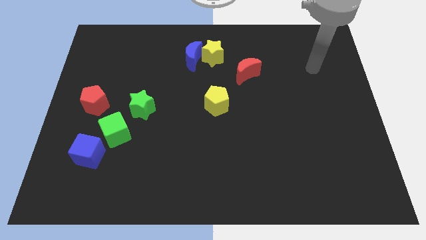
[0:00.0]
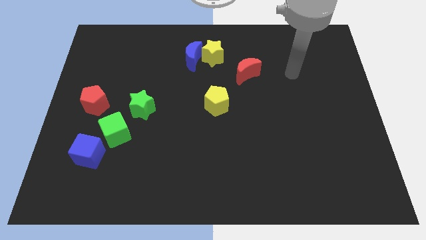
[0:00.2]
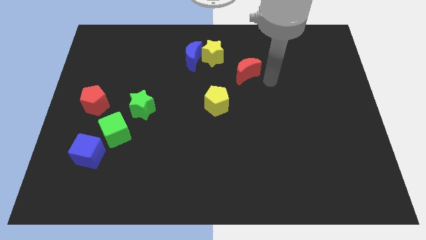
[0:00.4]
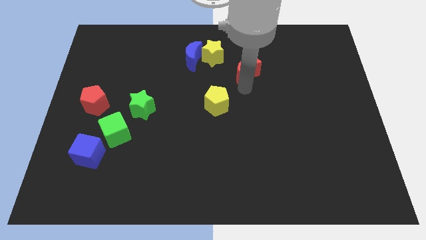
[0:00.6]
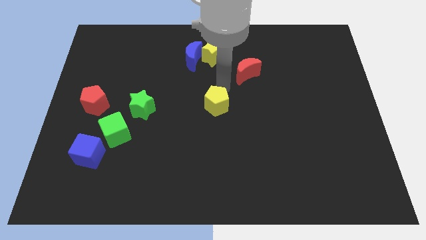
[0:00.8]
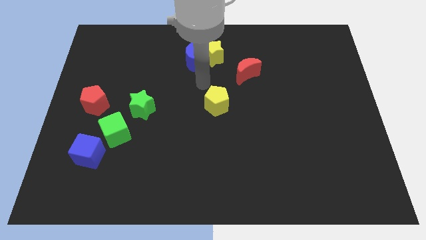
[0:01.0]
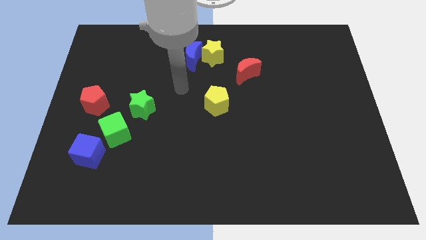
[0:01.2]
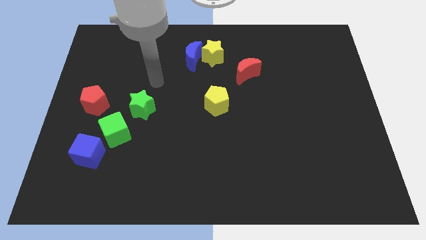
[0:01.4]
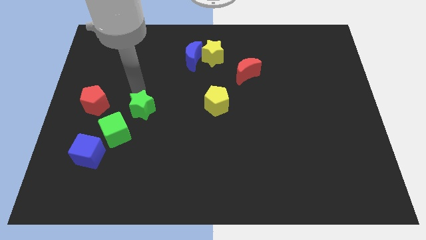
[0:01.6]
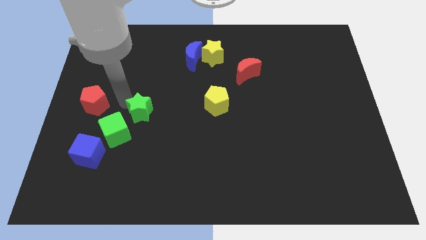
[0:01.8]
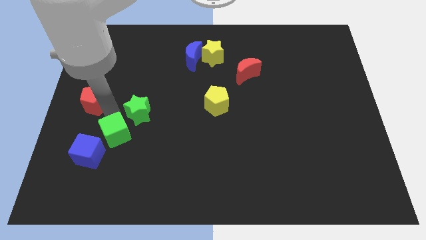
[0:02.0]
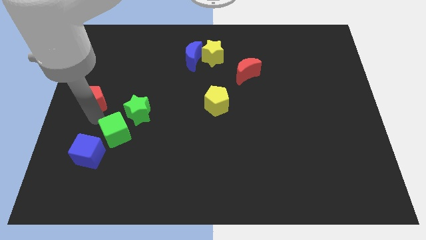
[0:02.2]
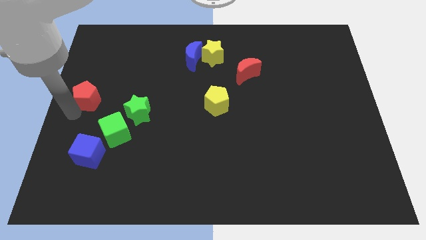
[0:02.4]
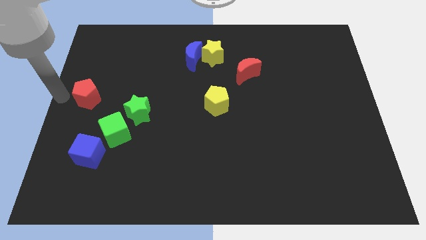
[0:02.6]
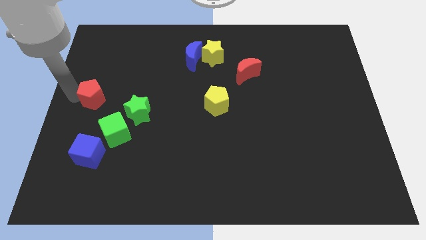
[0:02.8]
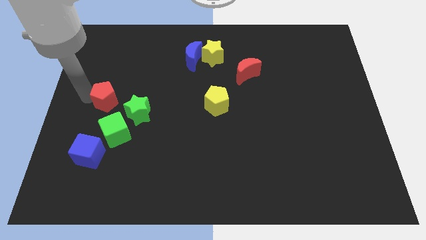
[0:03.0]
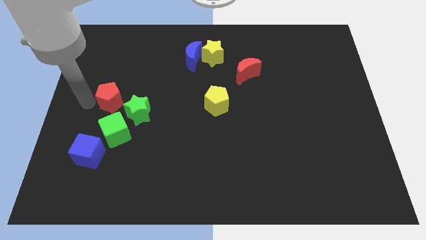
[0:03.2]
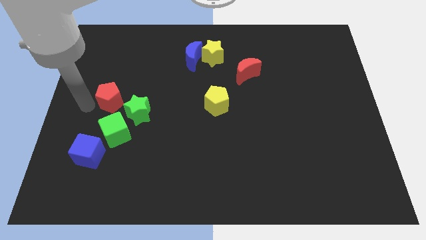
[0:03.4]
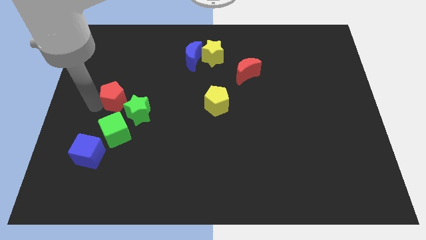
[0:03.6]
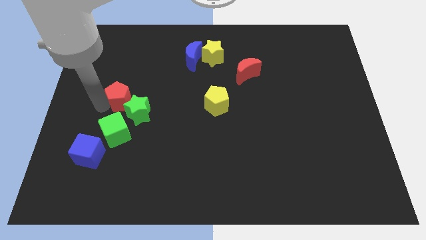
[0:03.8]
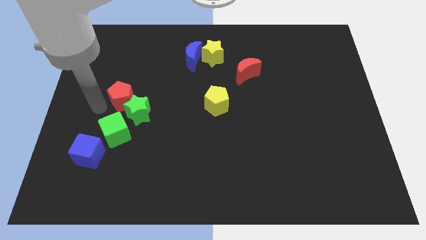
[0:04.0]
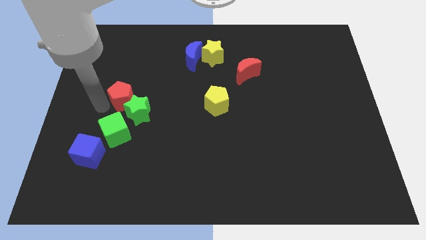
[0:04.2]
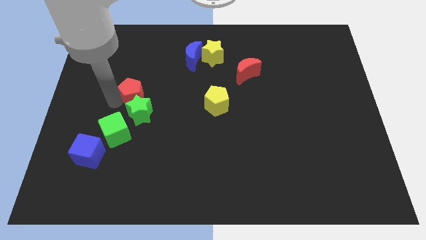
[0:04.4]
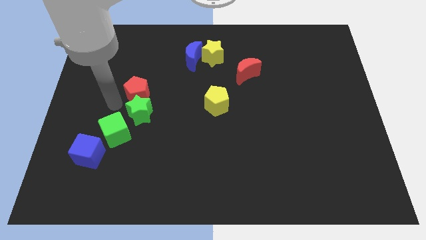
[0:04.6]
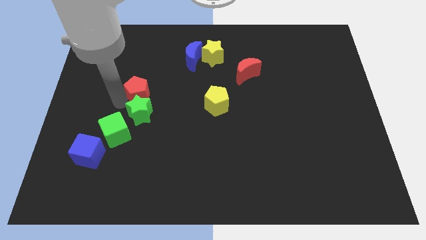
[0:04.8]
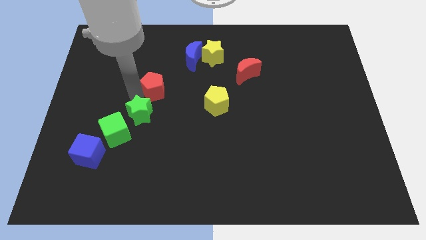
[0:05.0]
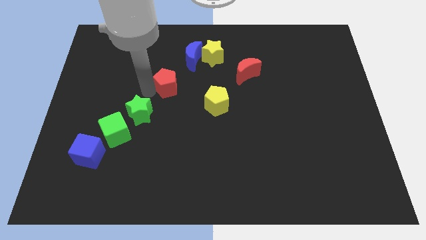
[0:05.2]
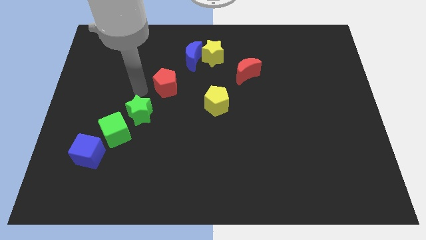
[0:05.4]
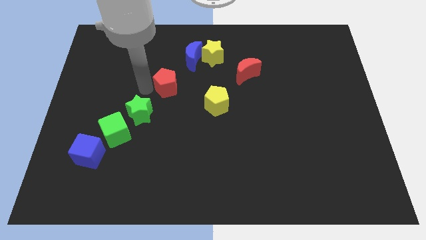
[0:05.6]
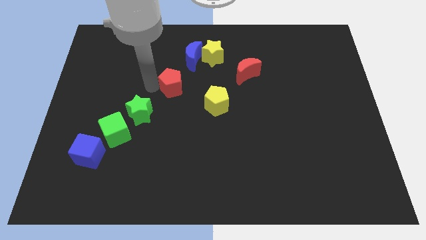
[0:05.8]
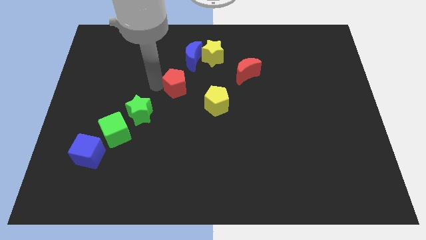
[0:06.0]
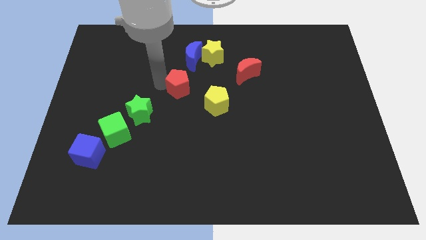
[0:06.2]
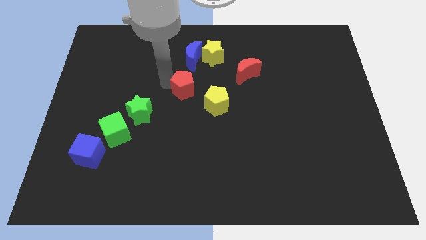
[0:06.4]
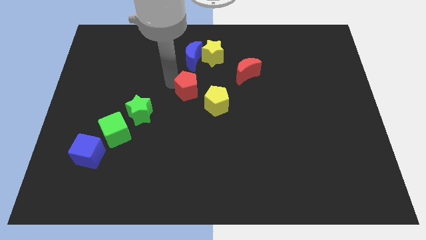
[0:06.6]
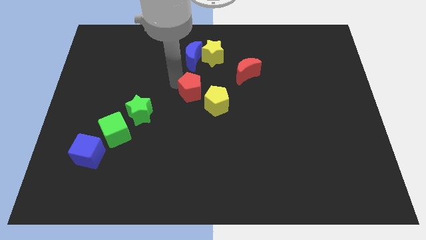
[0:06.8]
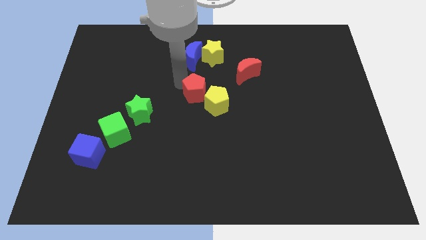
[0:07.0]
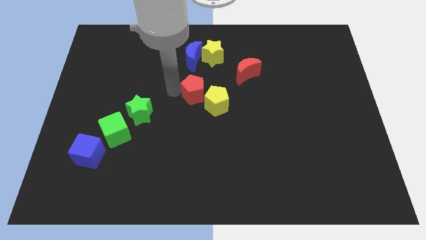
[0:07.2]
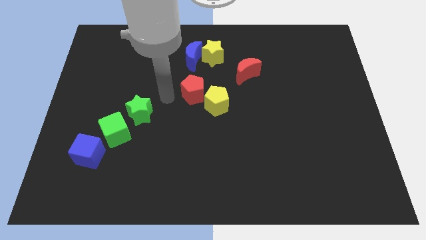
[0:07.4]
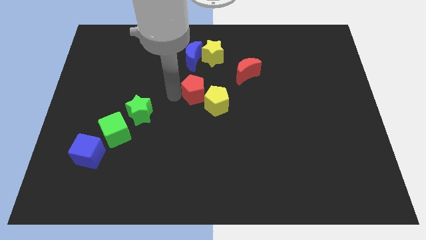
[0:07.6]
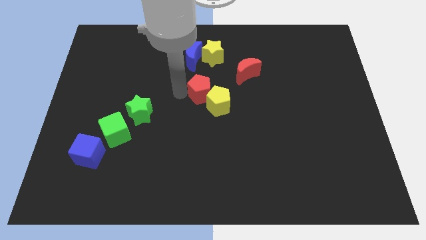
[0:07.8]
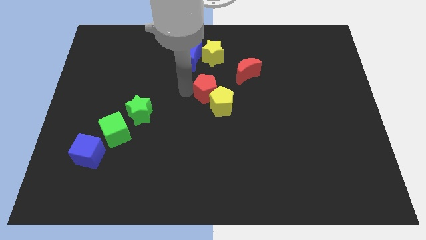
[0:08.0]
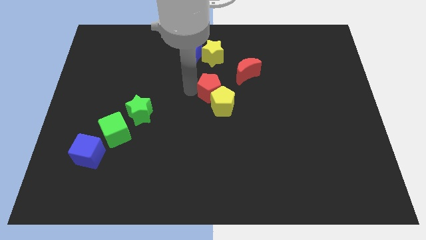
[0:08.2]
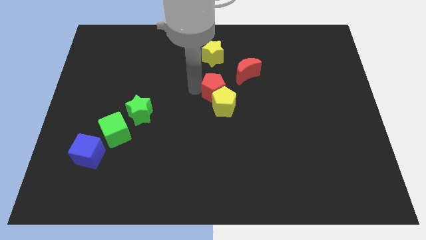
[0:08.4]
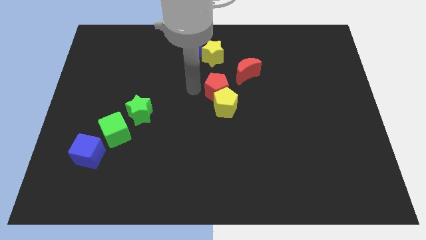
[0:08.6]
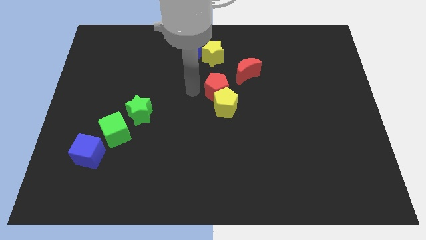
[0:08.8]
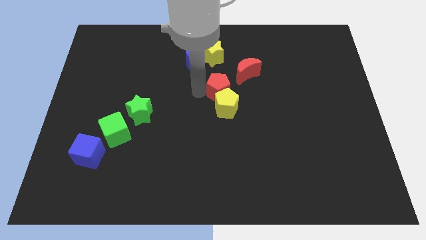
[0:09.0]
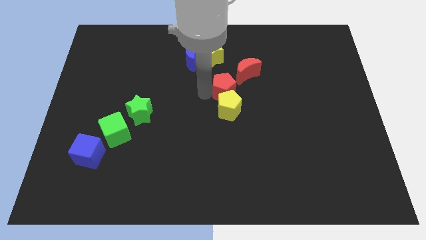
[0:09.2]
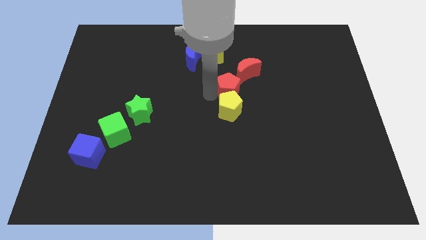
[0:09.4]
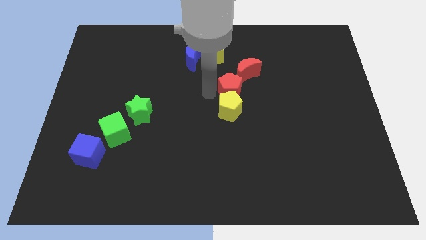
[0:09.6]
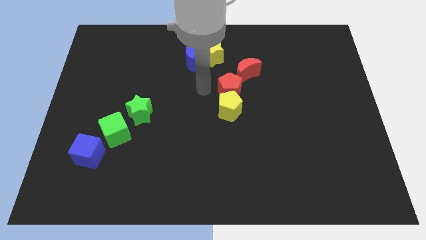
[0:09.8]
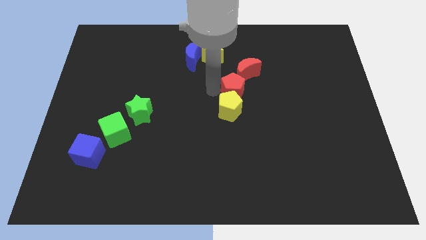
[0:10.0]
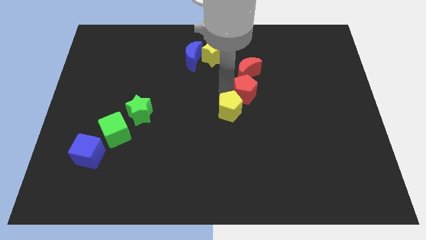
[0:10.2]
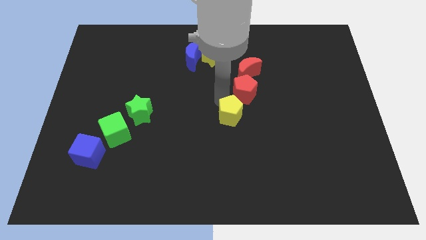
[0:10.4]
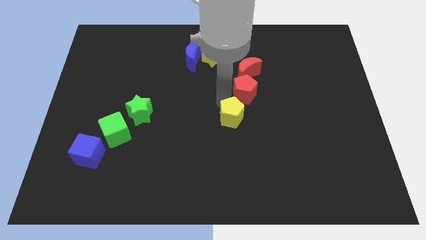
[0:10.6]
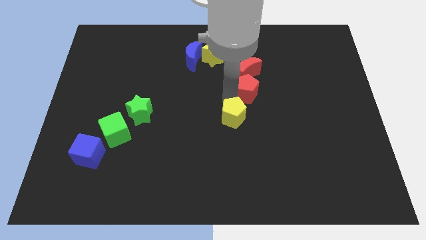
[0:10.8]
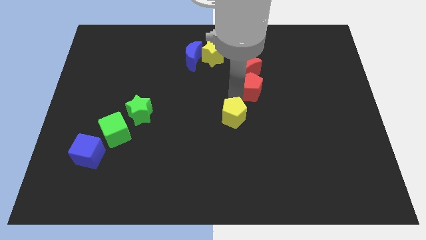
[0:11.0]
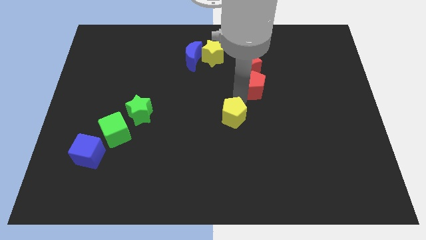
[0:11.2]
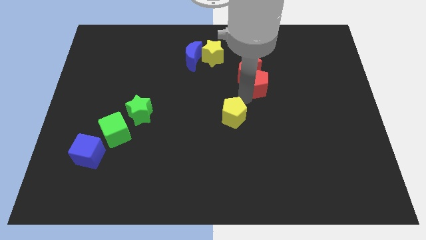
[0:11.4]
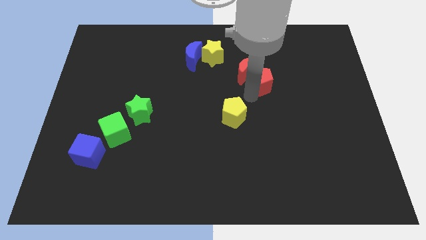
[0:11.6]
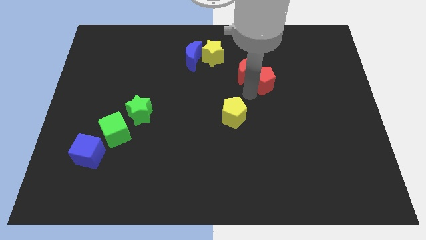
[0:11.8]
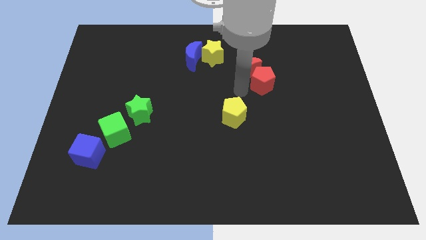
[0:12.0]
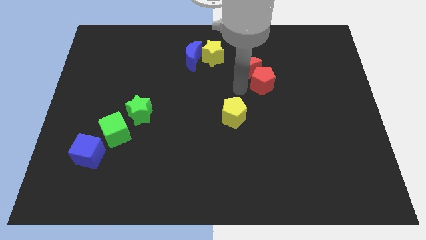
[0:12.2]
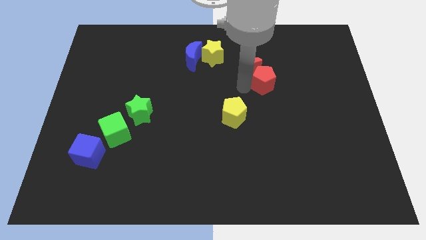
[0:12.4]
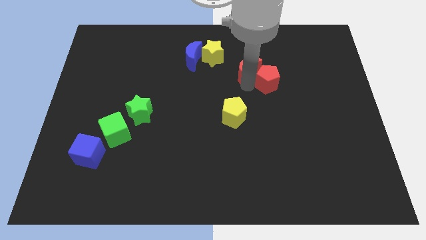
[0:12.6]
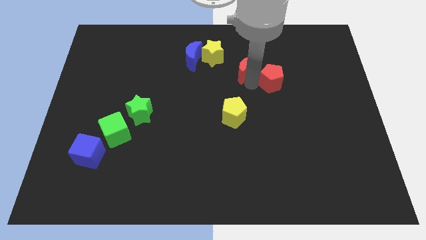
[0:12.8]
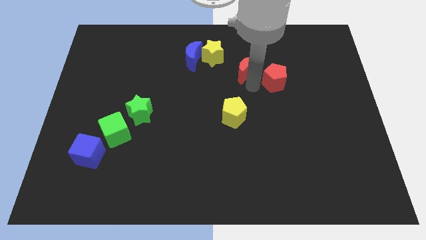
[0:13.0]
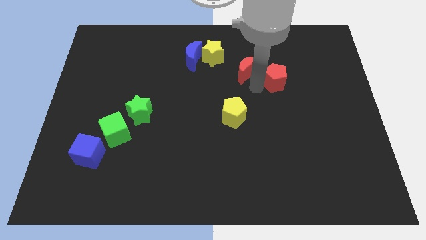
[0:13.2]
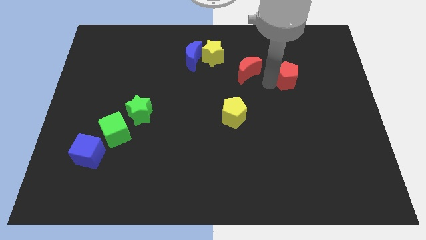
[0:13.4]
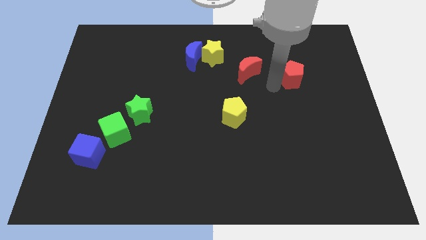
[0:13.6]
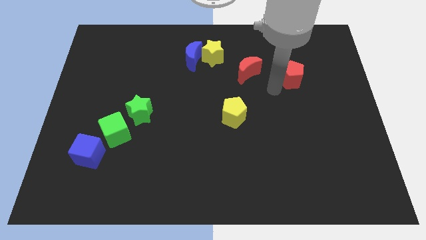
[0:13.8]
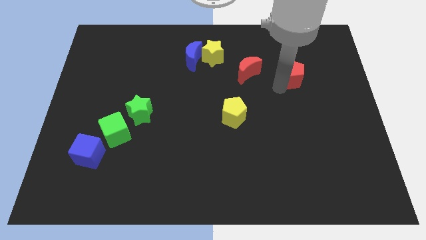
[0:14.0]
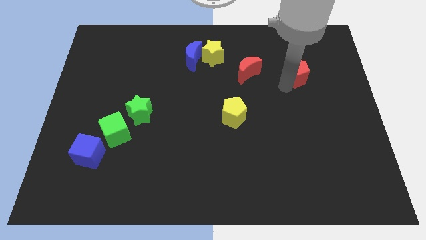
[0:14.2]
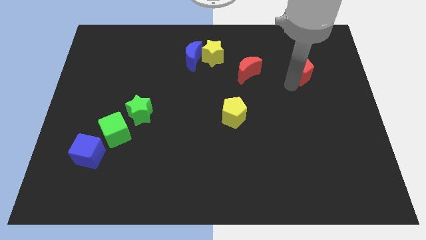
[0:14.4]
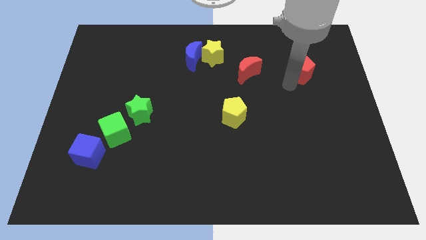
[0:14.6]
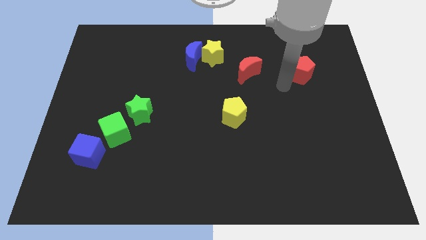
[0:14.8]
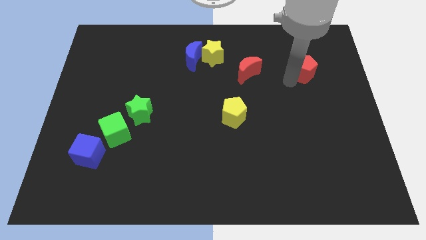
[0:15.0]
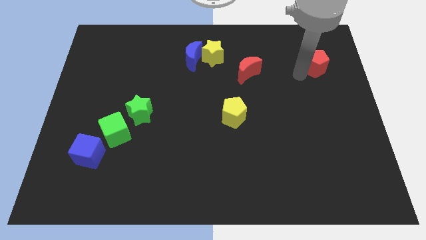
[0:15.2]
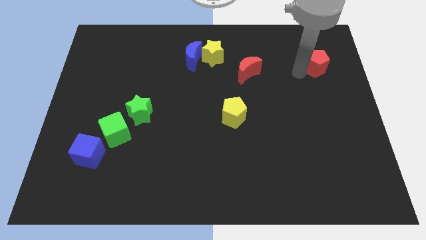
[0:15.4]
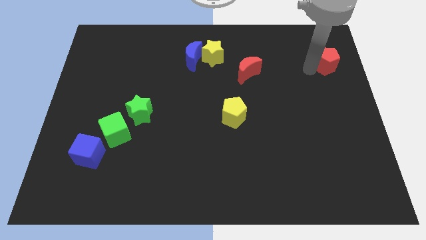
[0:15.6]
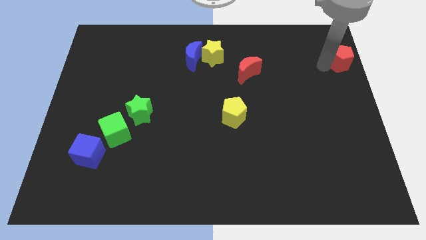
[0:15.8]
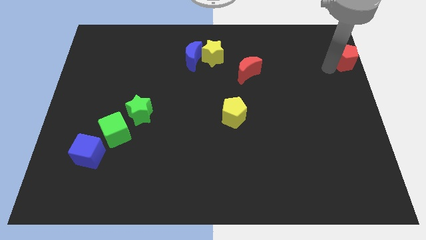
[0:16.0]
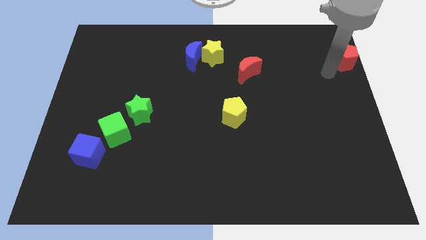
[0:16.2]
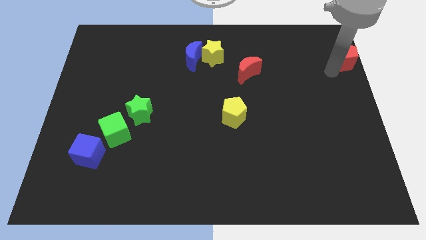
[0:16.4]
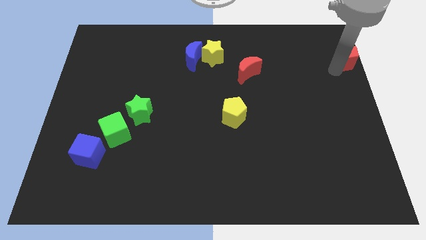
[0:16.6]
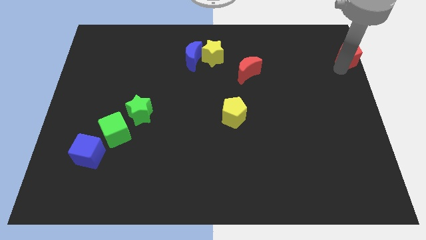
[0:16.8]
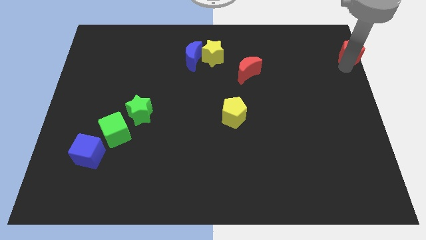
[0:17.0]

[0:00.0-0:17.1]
push the red pentagon to the top right
